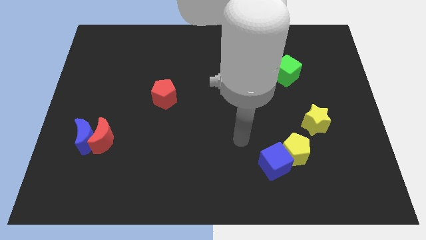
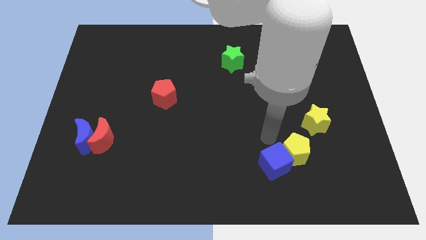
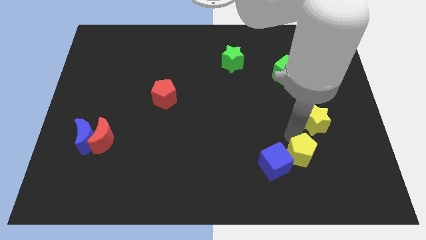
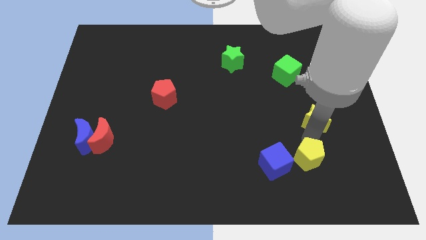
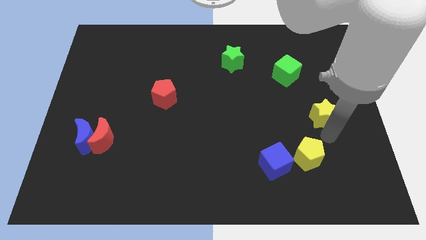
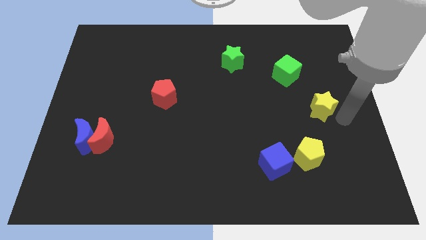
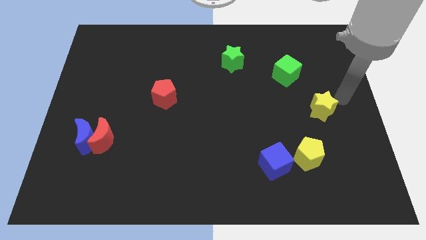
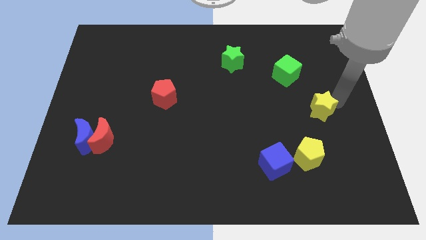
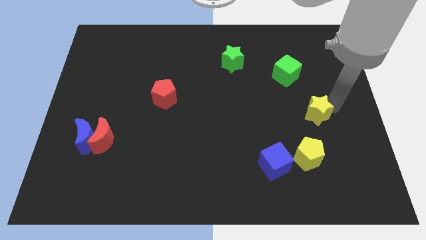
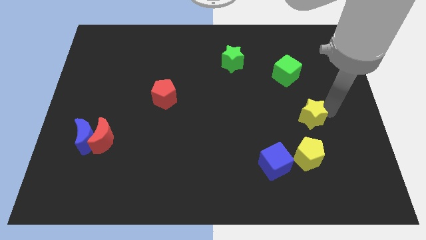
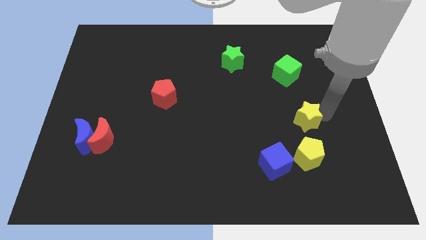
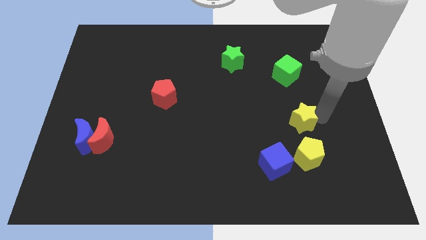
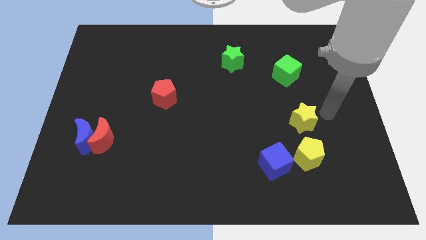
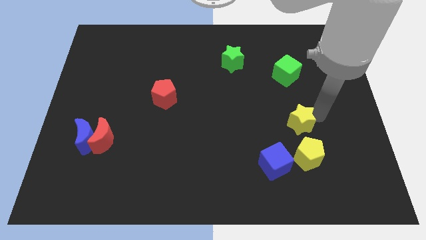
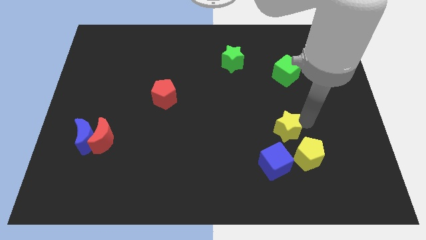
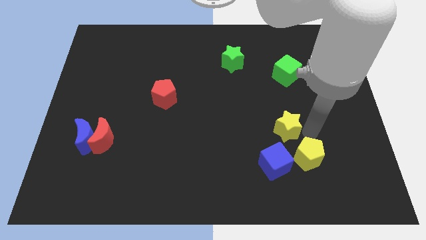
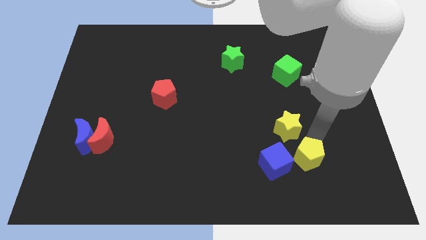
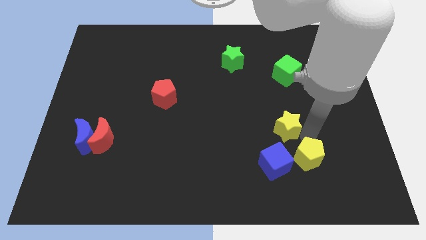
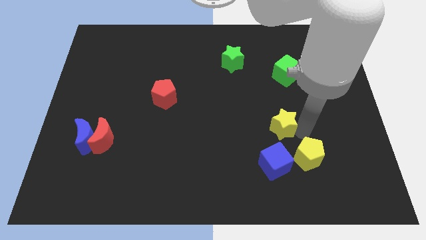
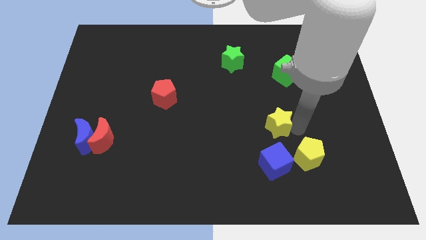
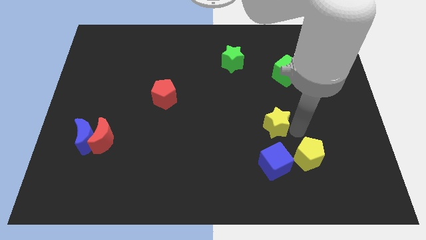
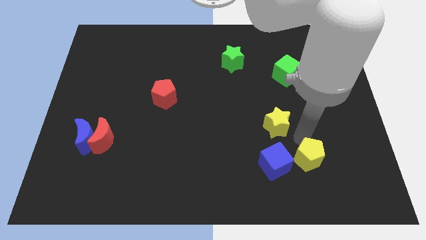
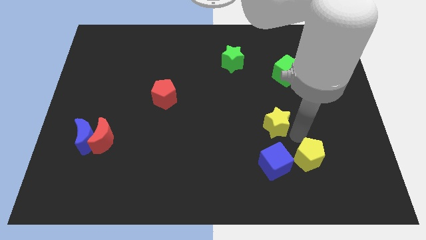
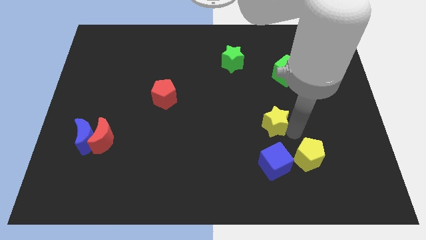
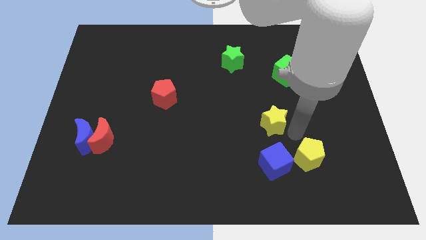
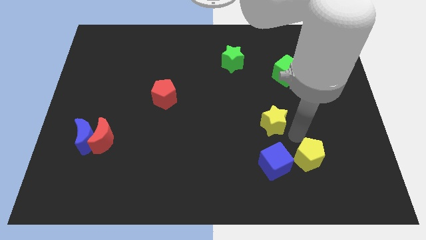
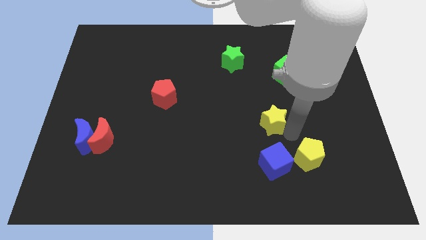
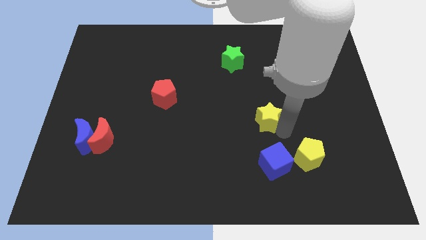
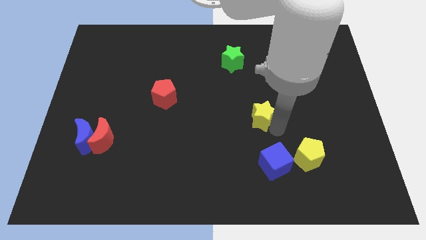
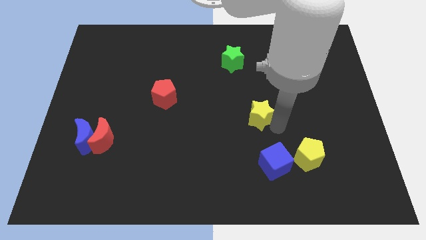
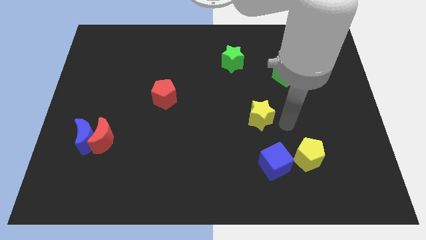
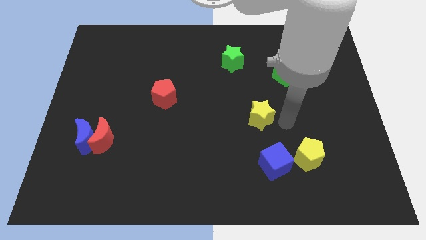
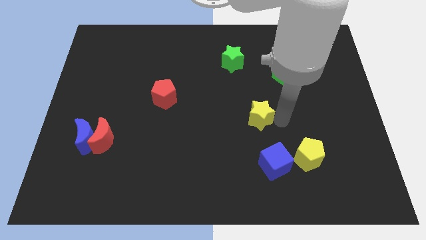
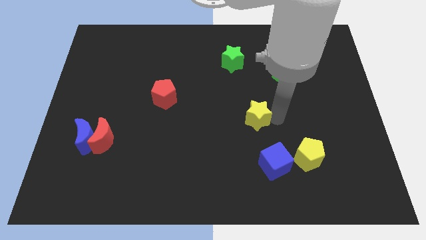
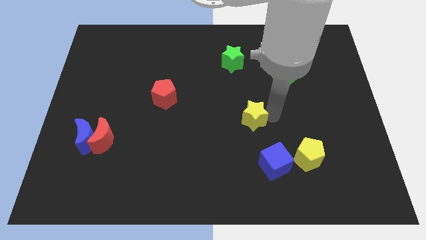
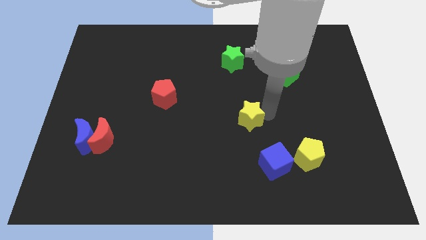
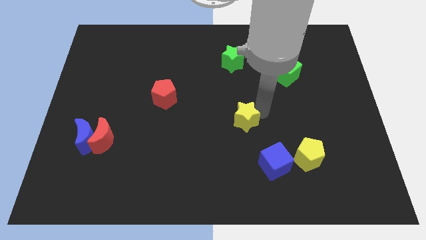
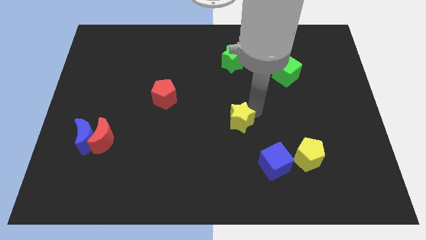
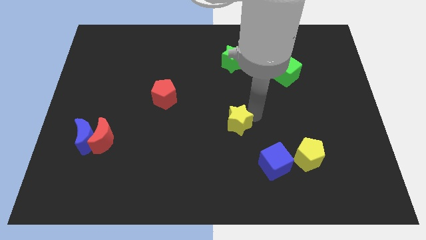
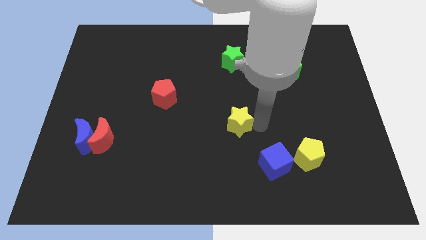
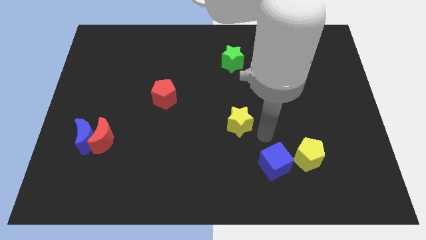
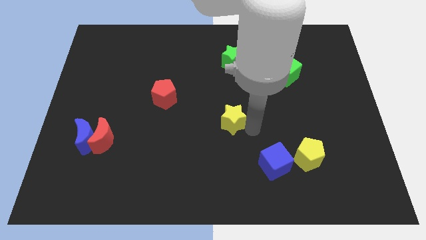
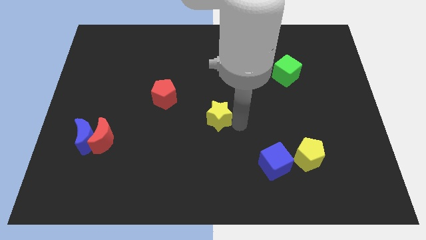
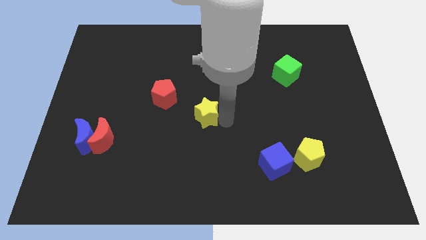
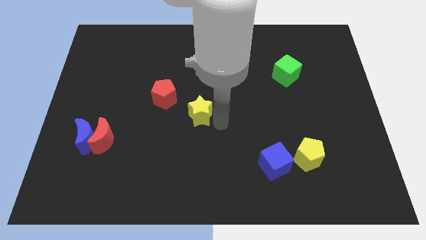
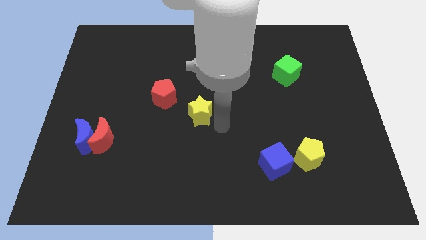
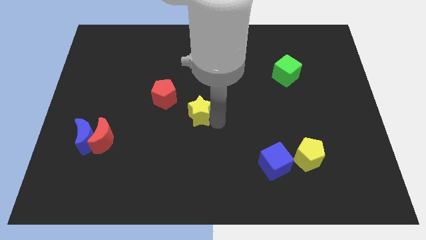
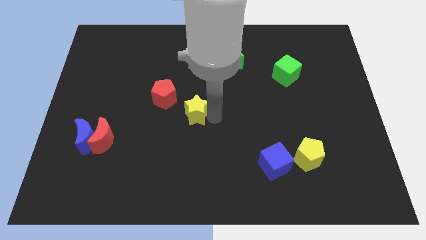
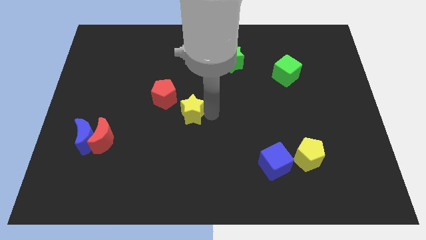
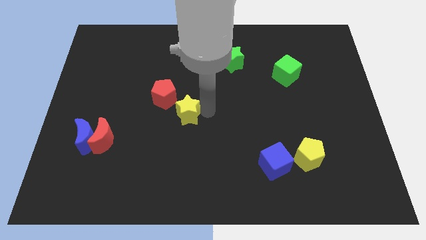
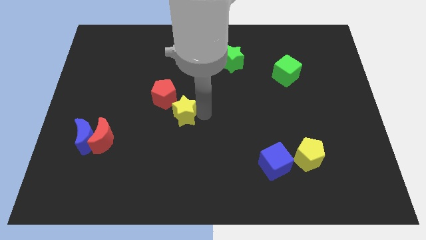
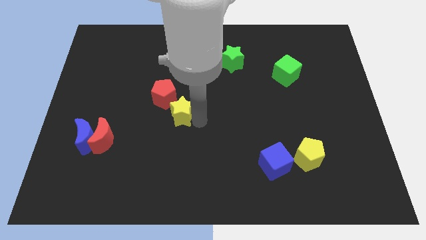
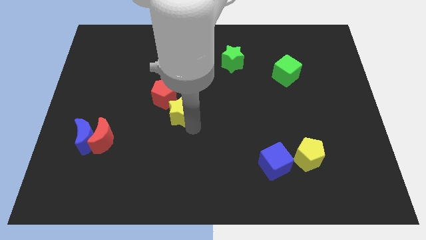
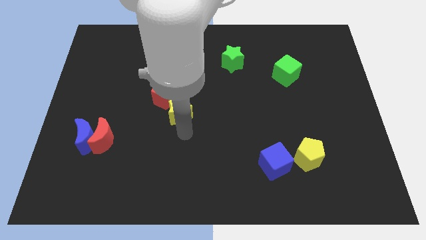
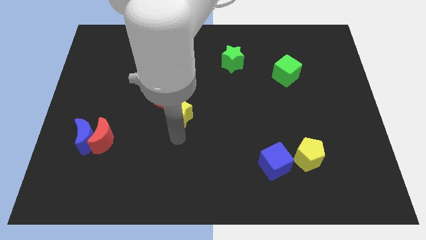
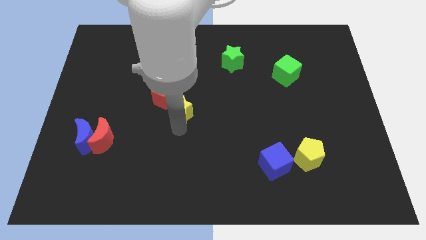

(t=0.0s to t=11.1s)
slide the yellow star towards the red pentagon

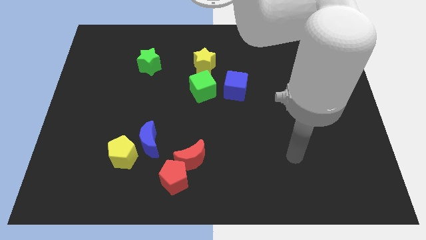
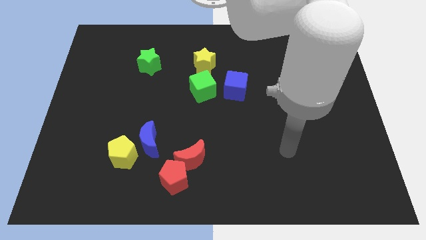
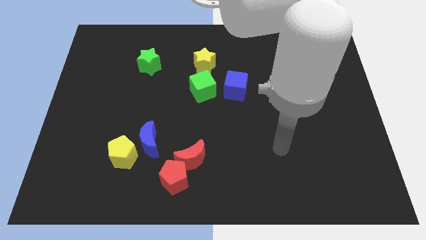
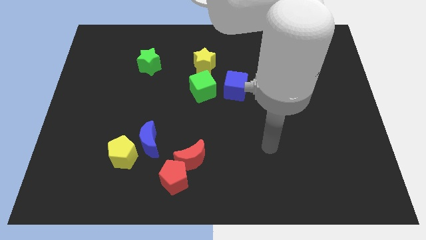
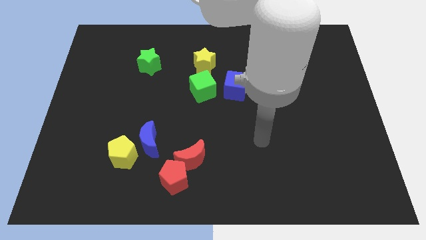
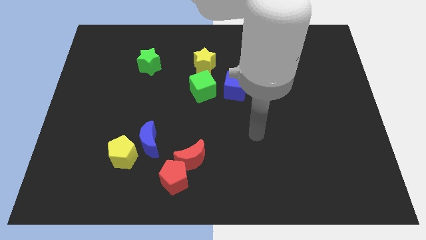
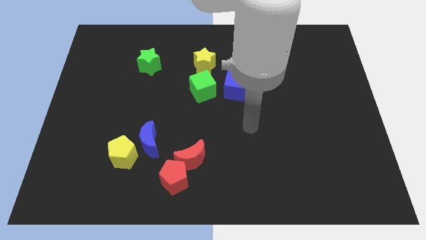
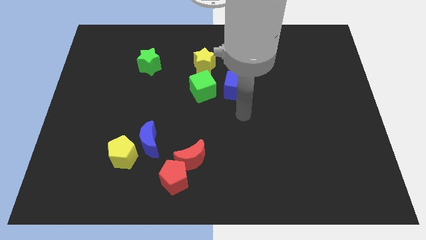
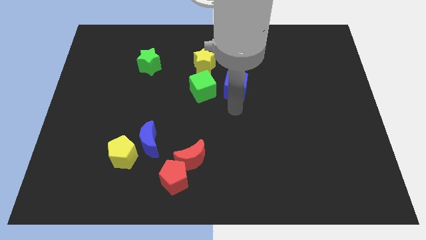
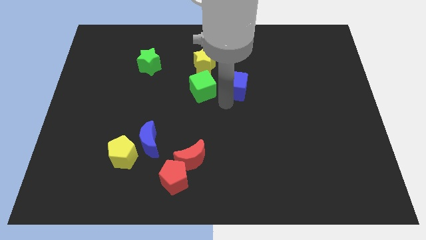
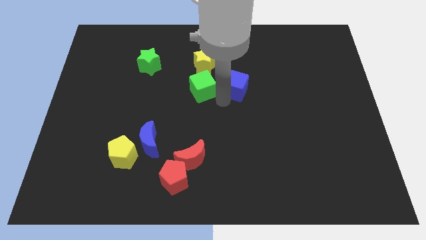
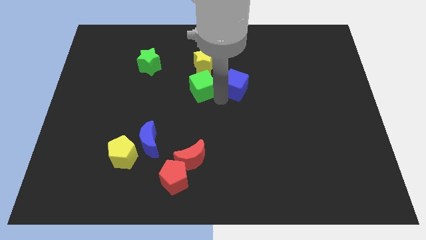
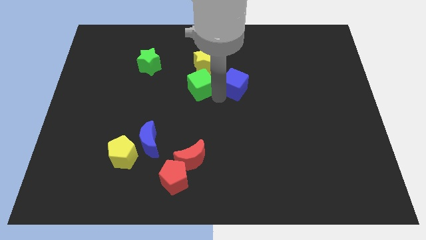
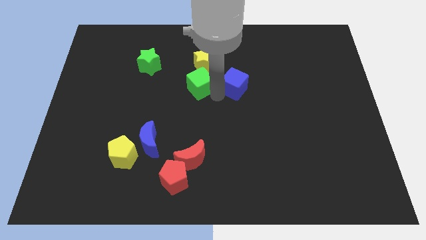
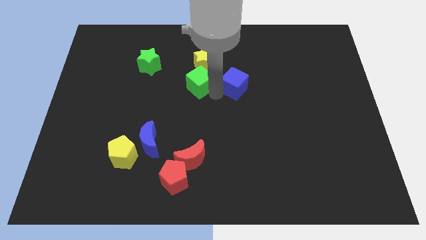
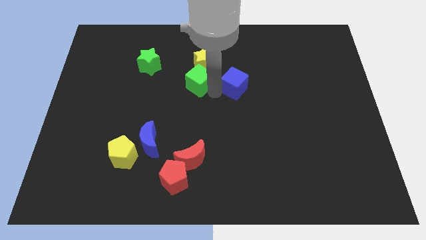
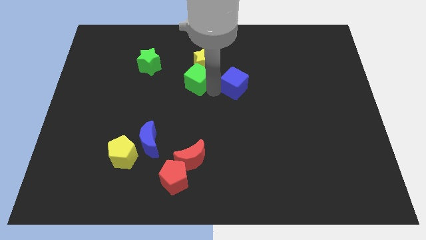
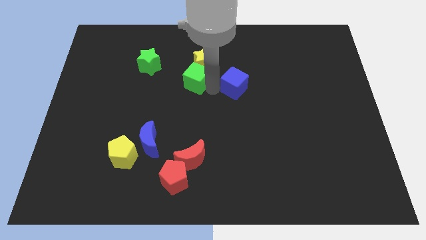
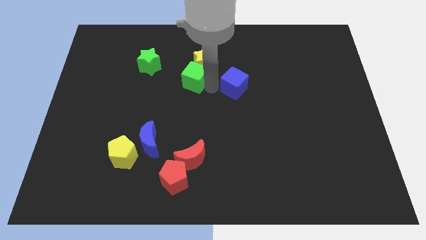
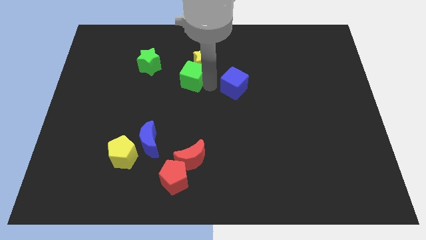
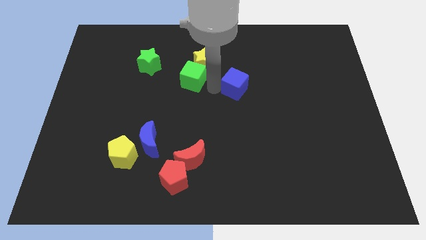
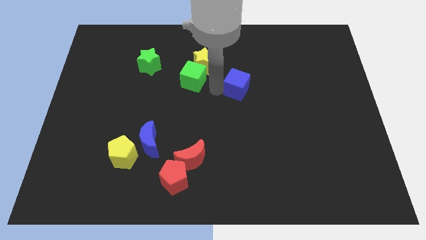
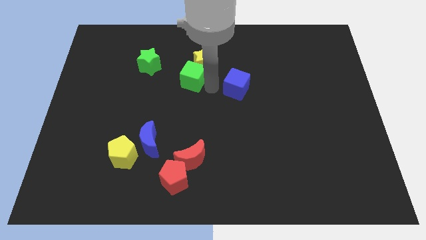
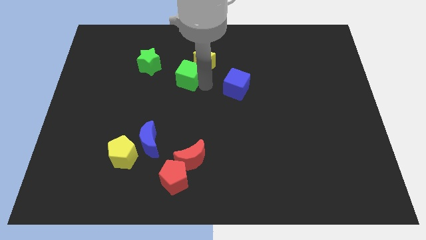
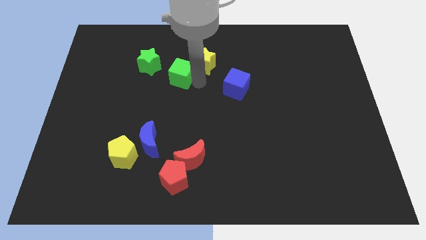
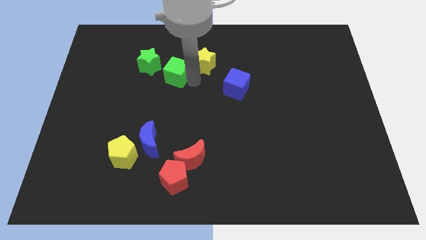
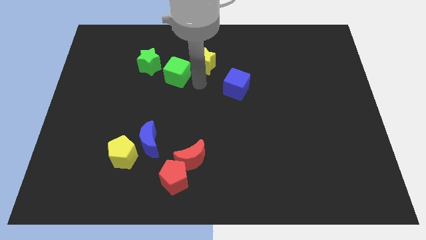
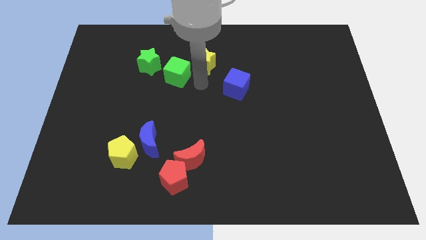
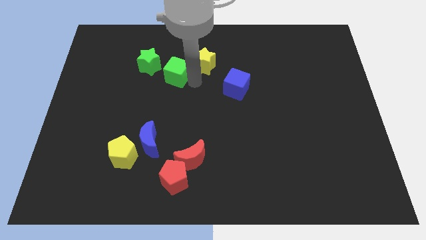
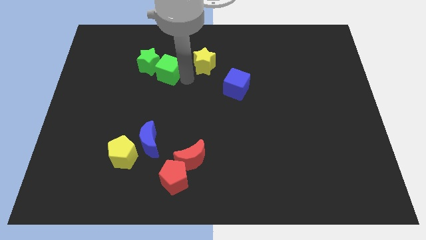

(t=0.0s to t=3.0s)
push the green cube next to the green star
